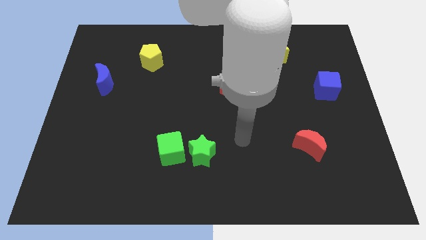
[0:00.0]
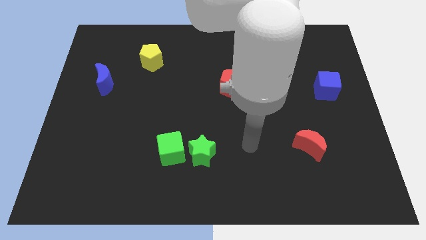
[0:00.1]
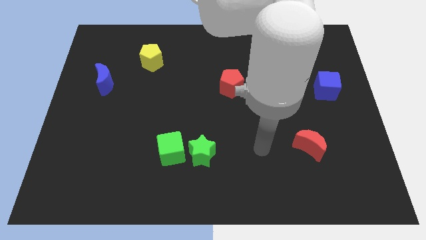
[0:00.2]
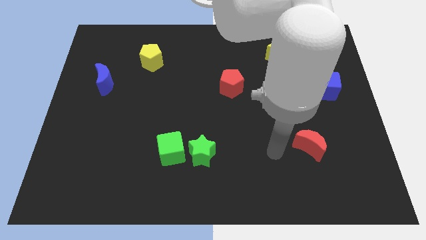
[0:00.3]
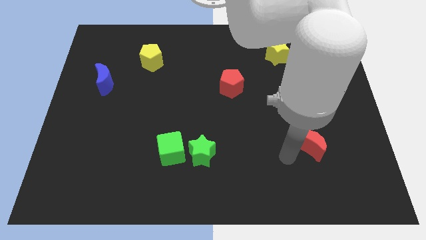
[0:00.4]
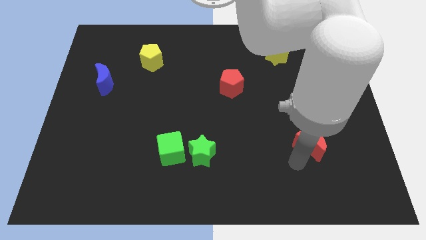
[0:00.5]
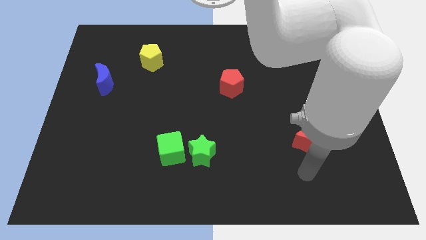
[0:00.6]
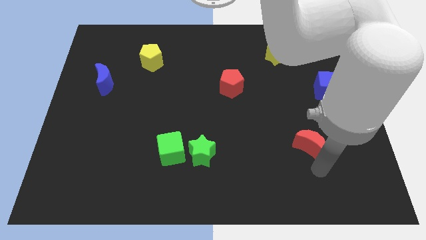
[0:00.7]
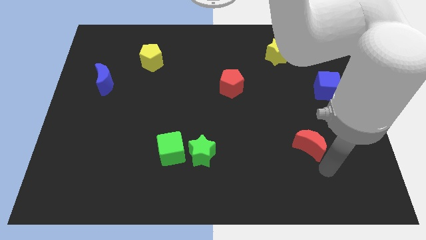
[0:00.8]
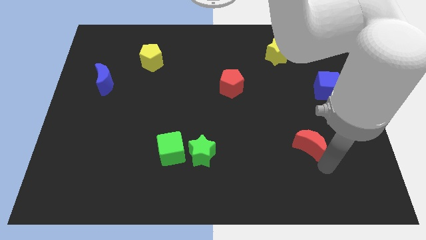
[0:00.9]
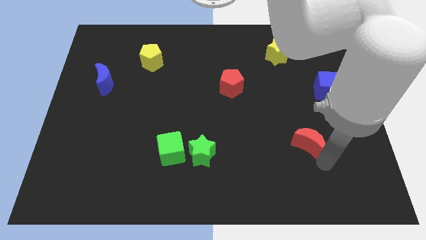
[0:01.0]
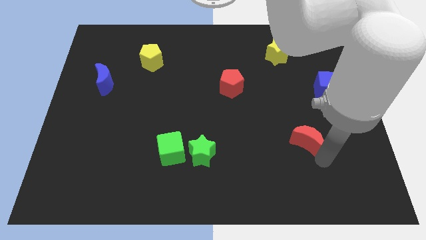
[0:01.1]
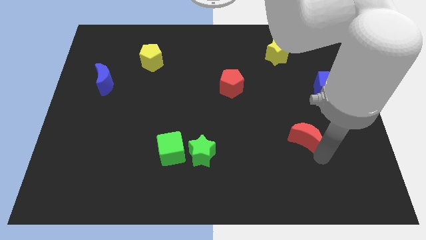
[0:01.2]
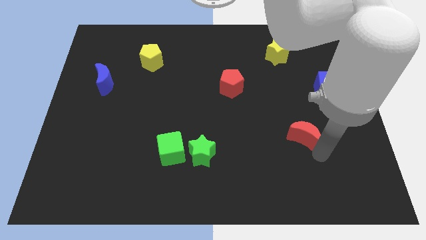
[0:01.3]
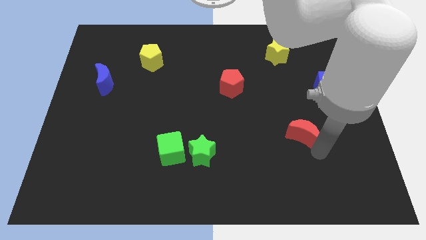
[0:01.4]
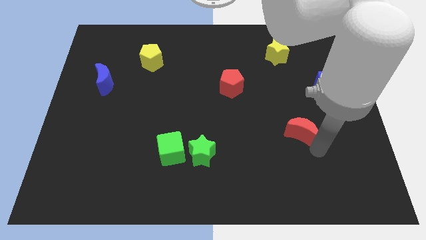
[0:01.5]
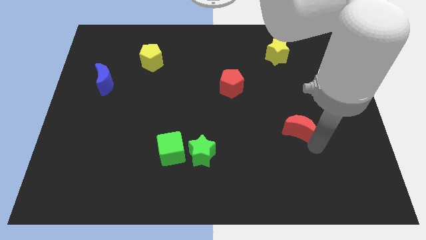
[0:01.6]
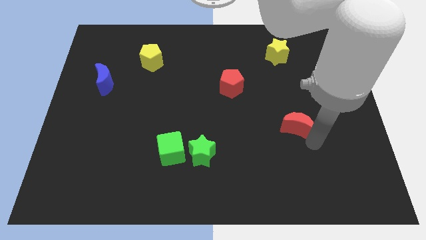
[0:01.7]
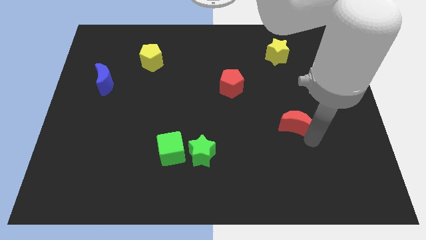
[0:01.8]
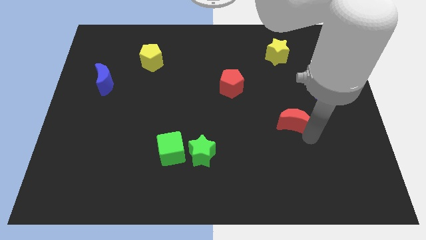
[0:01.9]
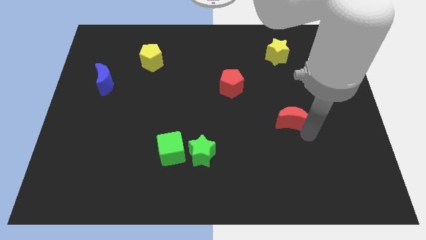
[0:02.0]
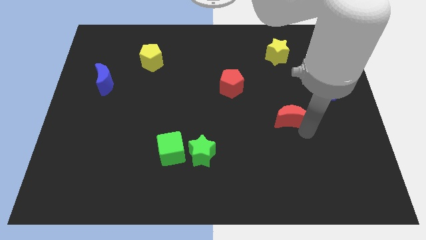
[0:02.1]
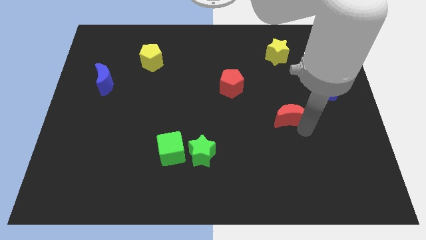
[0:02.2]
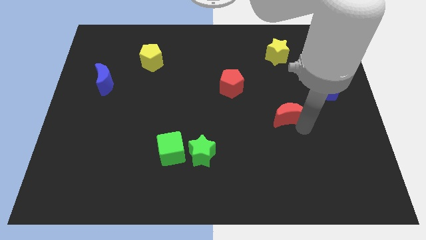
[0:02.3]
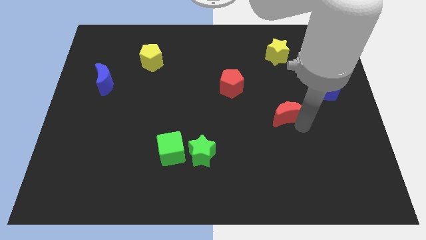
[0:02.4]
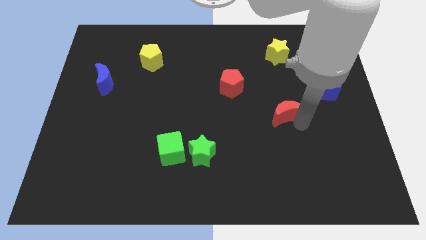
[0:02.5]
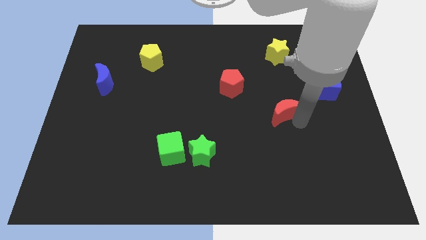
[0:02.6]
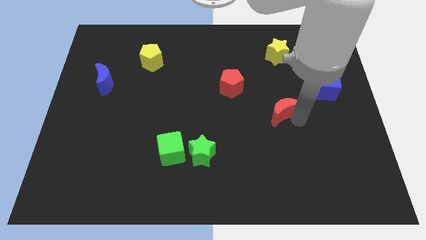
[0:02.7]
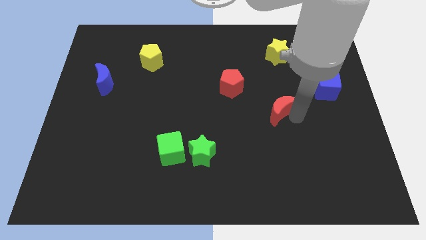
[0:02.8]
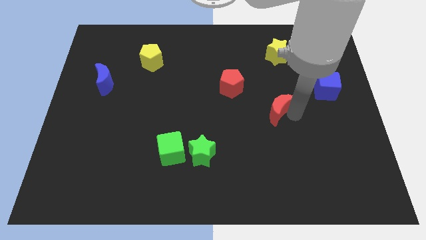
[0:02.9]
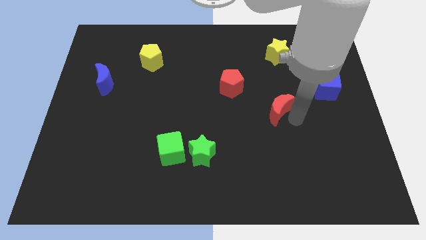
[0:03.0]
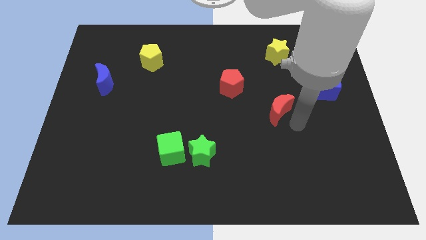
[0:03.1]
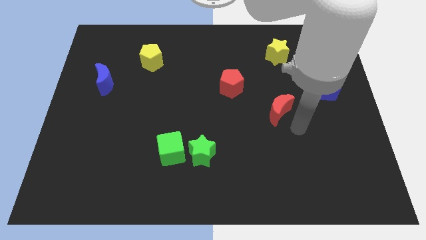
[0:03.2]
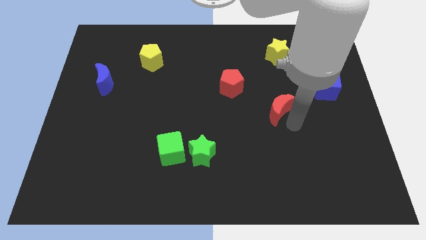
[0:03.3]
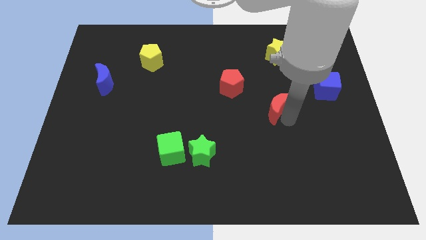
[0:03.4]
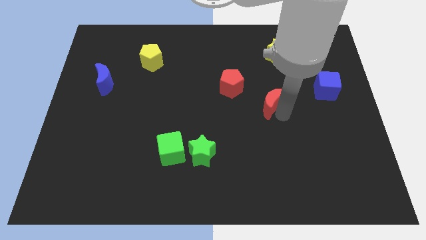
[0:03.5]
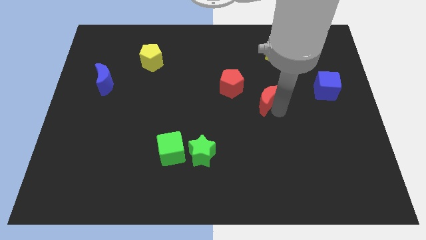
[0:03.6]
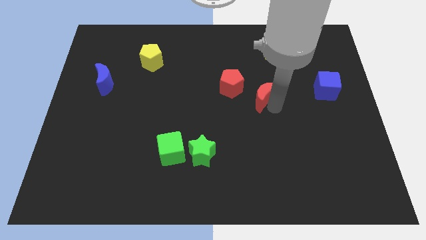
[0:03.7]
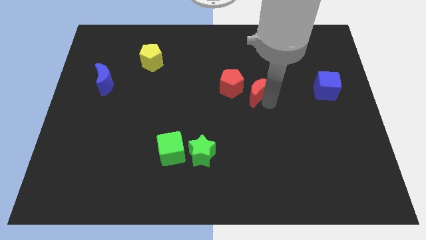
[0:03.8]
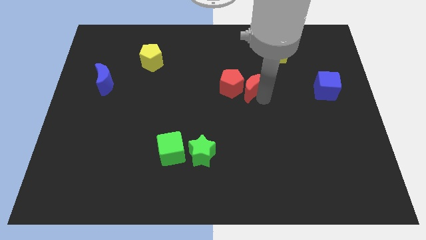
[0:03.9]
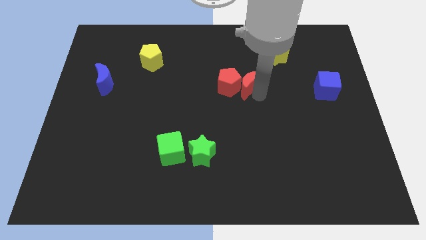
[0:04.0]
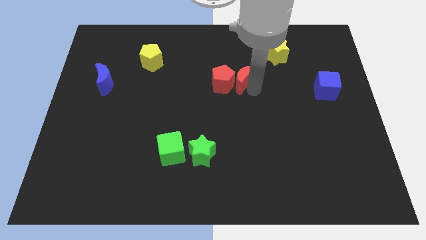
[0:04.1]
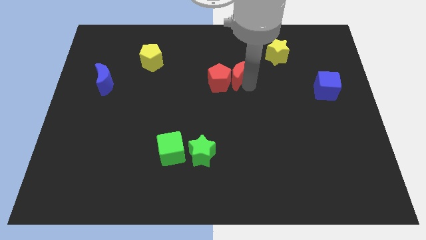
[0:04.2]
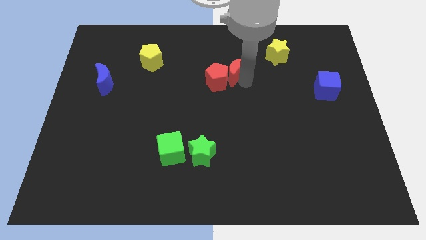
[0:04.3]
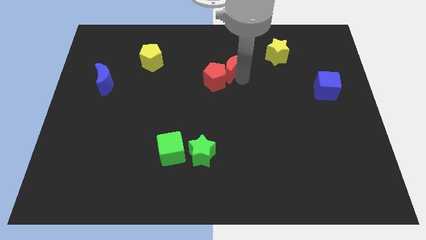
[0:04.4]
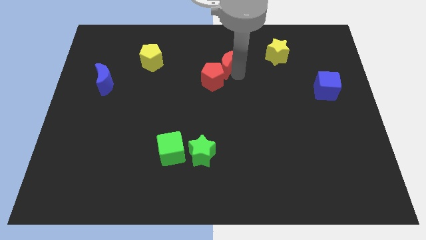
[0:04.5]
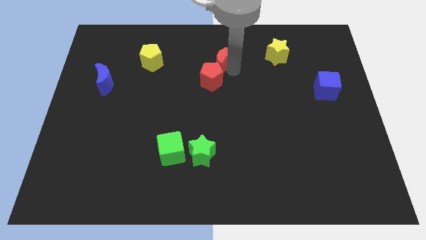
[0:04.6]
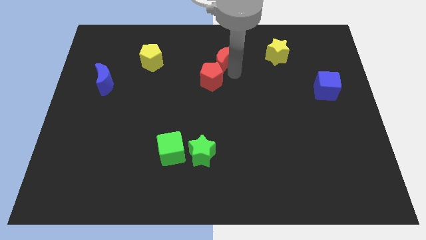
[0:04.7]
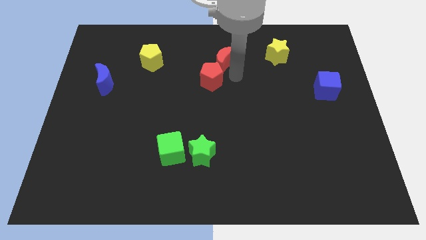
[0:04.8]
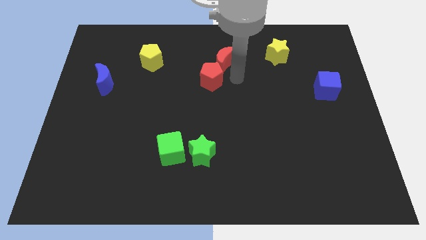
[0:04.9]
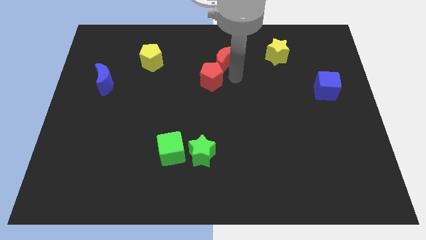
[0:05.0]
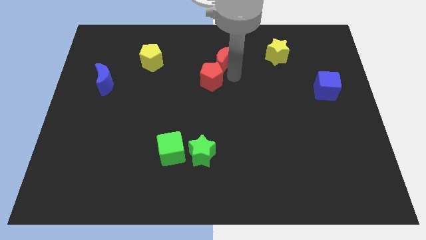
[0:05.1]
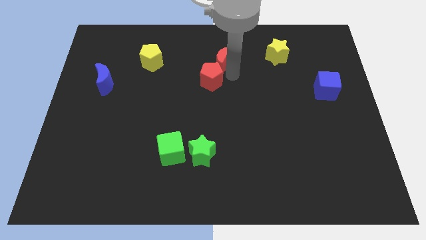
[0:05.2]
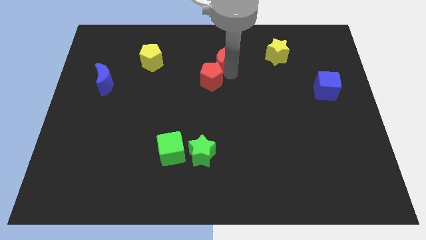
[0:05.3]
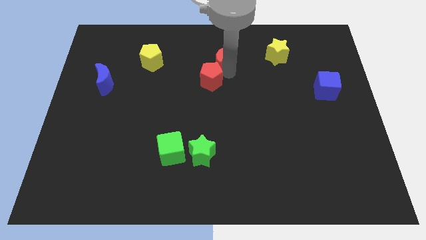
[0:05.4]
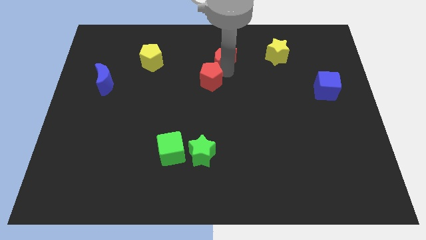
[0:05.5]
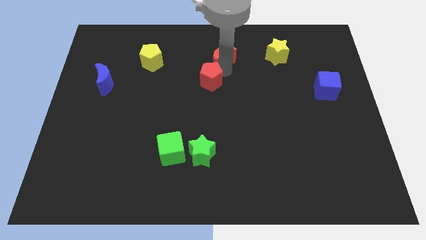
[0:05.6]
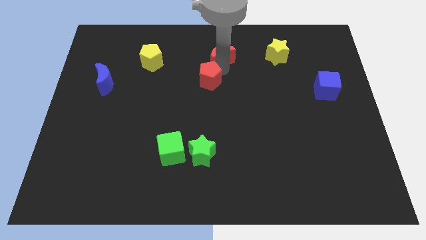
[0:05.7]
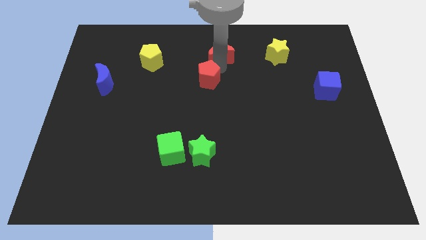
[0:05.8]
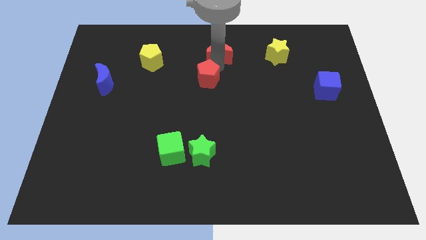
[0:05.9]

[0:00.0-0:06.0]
slide the red moon to the top side
